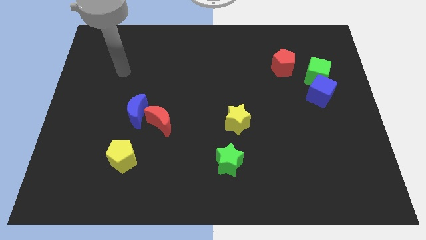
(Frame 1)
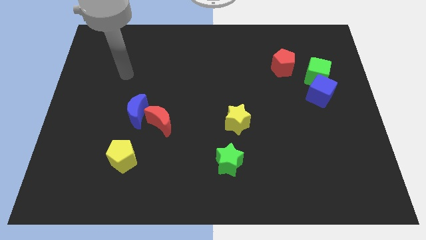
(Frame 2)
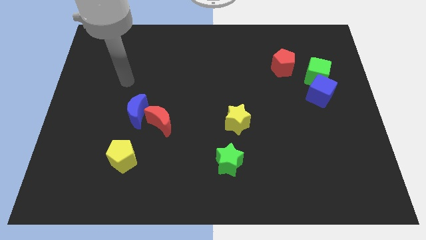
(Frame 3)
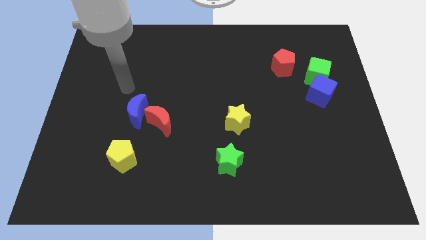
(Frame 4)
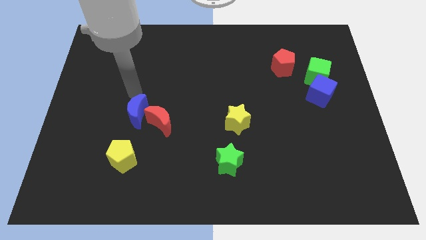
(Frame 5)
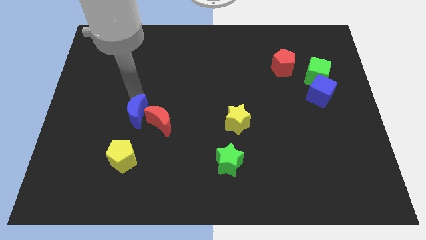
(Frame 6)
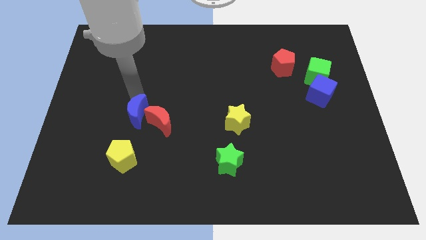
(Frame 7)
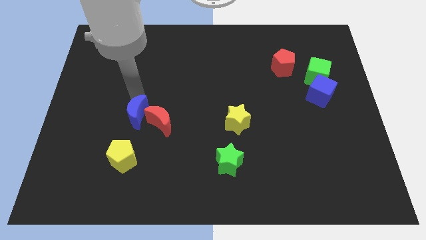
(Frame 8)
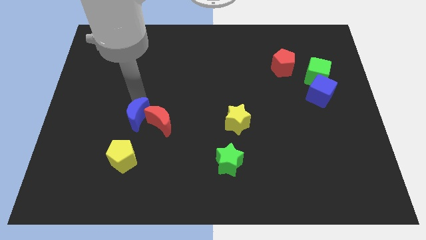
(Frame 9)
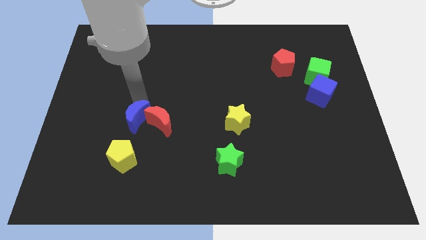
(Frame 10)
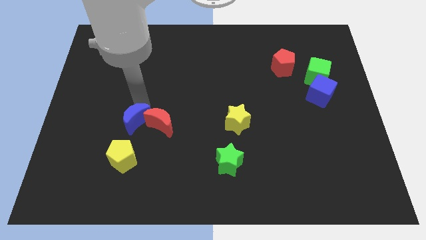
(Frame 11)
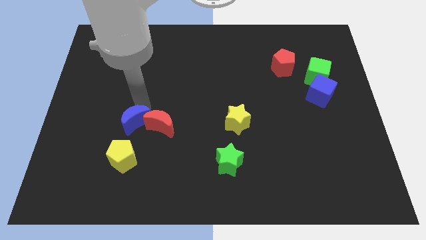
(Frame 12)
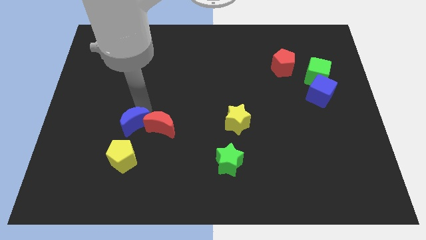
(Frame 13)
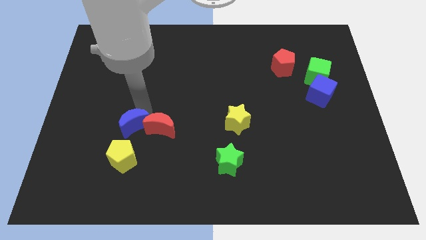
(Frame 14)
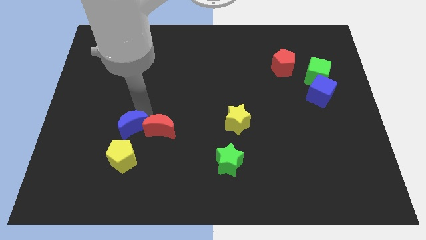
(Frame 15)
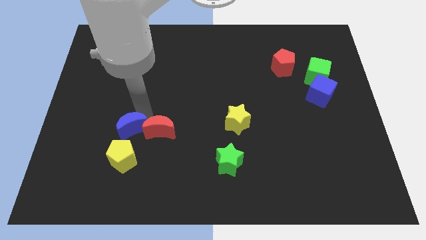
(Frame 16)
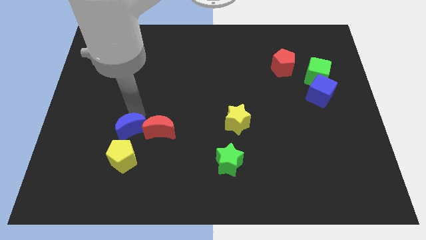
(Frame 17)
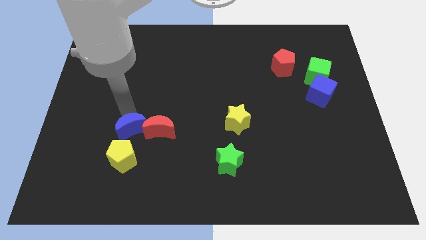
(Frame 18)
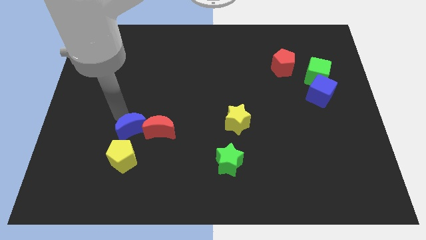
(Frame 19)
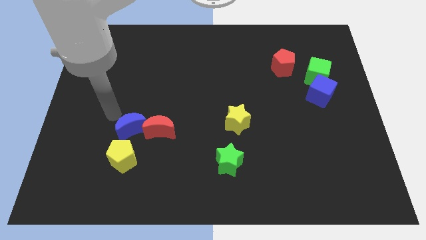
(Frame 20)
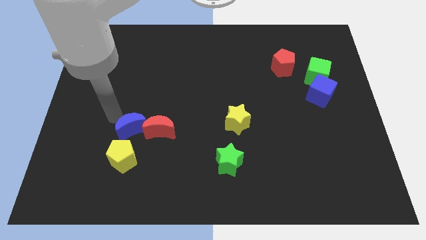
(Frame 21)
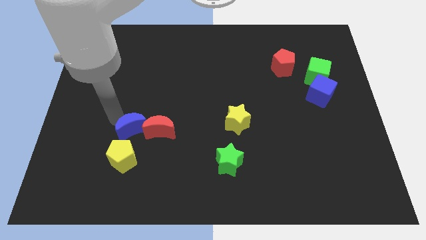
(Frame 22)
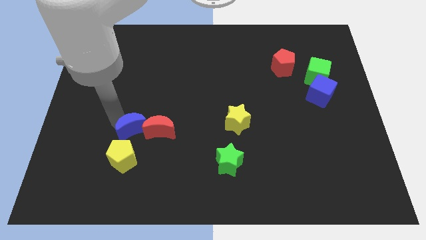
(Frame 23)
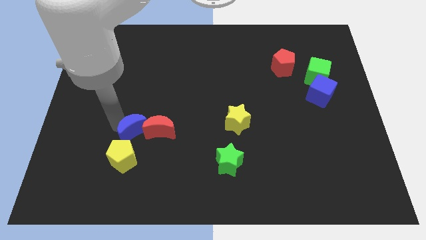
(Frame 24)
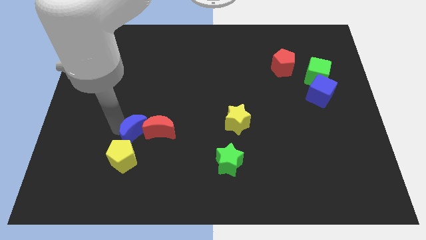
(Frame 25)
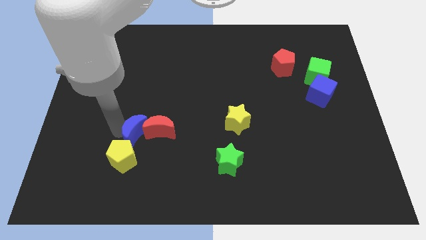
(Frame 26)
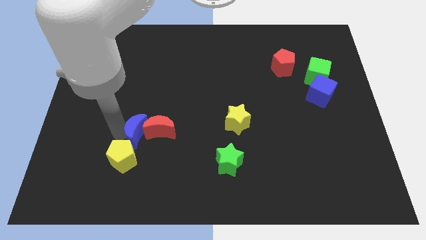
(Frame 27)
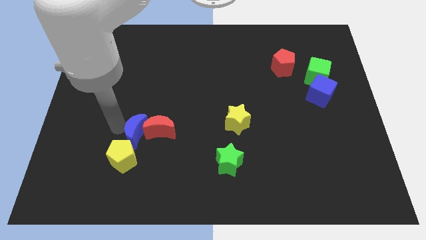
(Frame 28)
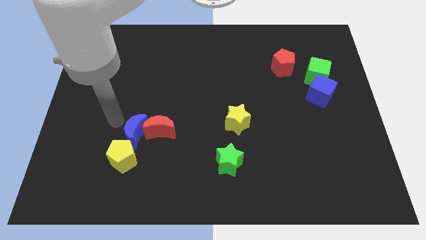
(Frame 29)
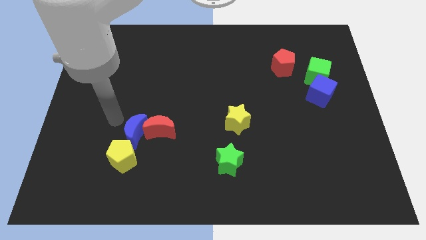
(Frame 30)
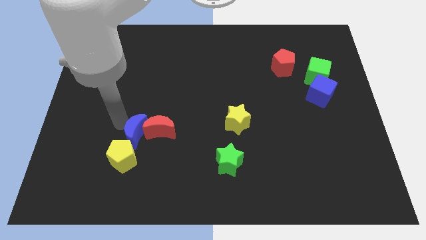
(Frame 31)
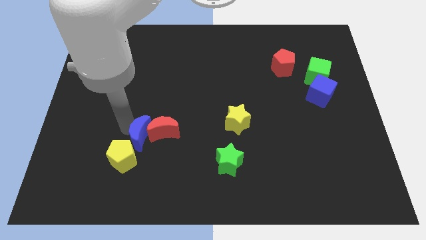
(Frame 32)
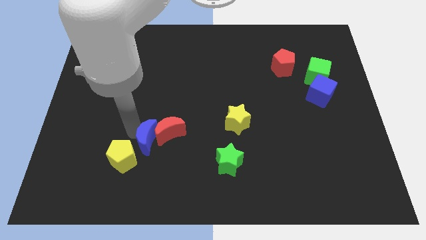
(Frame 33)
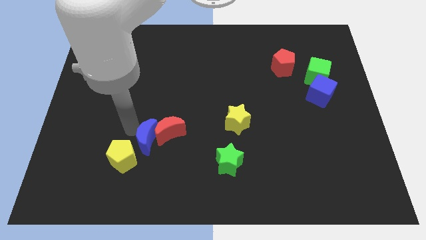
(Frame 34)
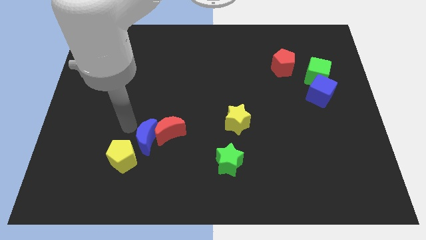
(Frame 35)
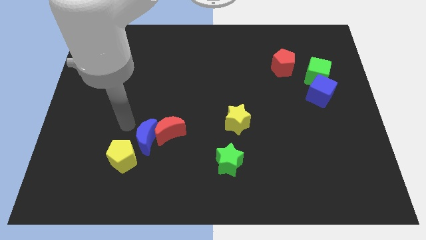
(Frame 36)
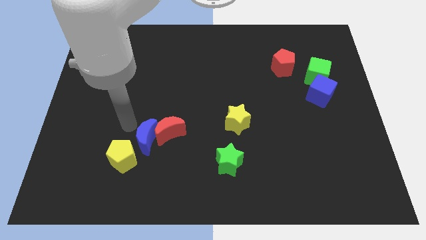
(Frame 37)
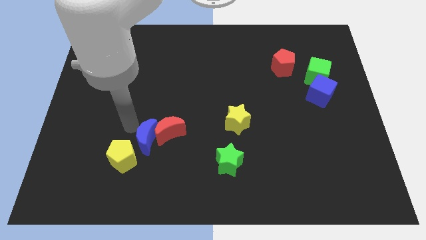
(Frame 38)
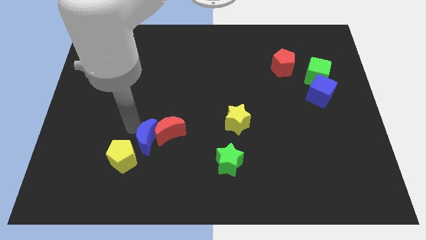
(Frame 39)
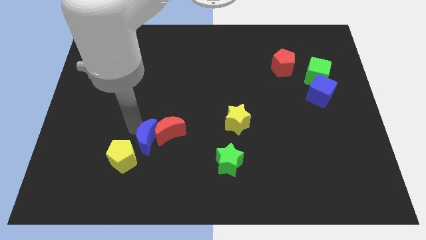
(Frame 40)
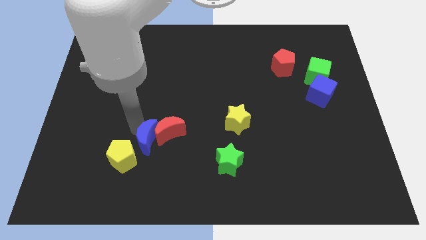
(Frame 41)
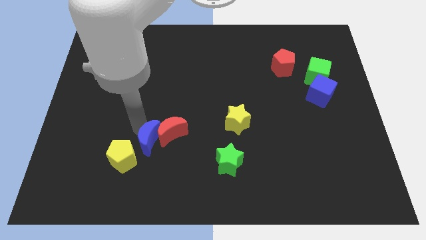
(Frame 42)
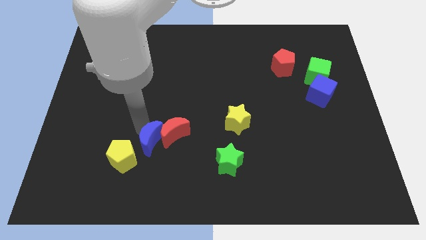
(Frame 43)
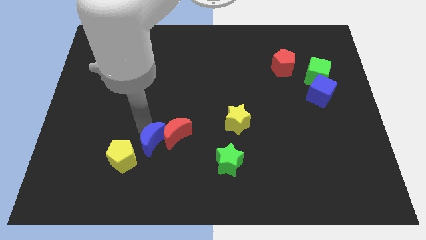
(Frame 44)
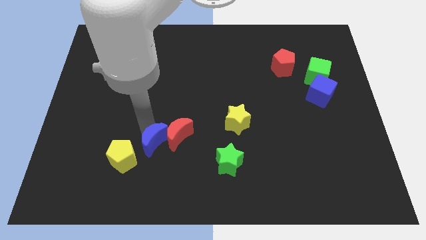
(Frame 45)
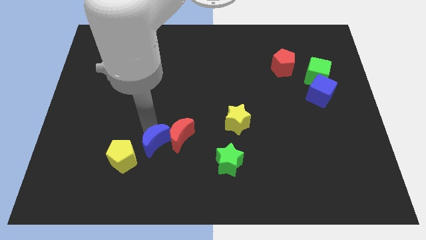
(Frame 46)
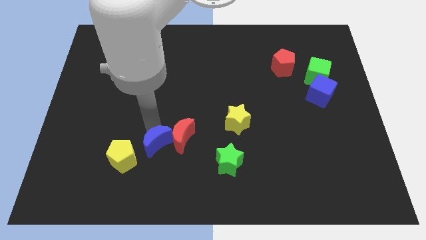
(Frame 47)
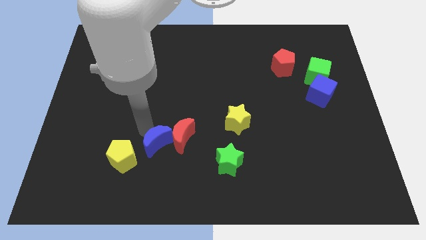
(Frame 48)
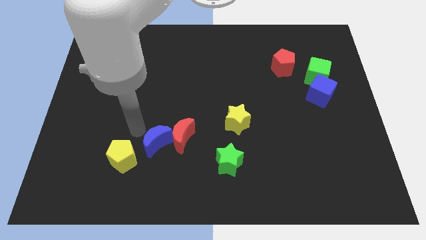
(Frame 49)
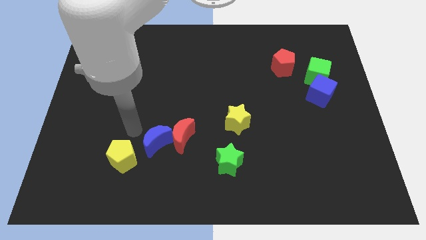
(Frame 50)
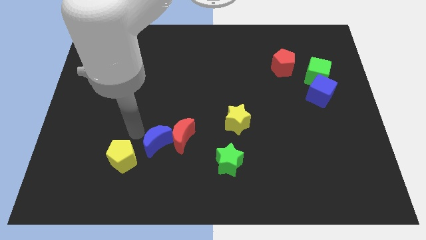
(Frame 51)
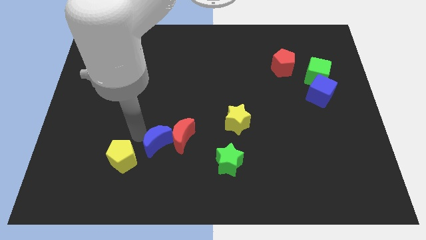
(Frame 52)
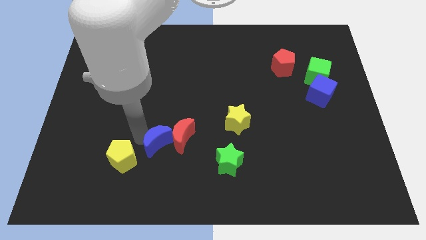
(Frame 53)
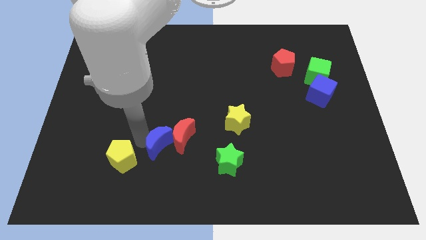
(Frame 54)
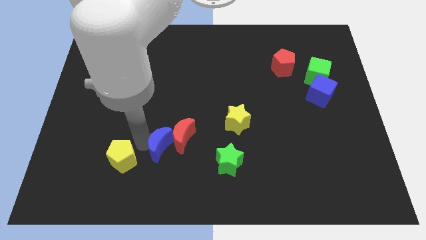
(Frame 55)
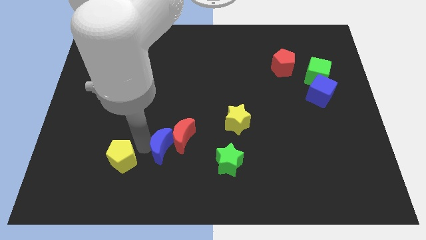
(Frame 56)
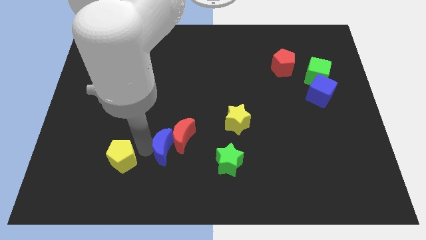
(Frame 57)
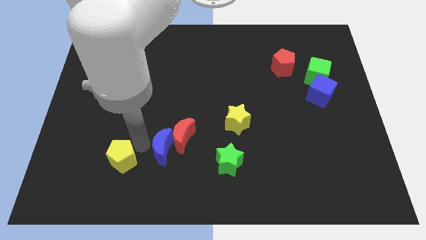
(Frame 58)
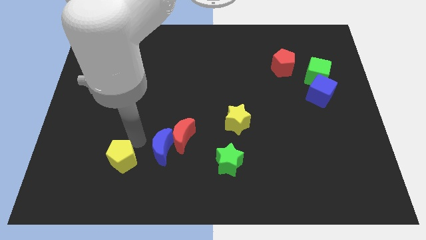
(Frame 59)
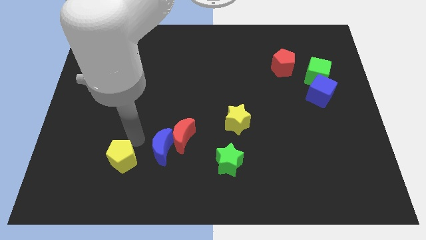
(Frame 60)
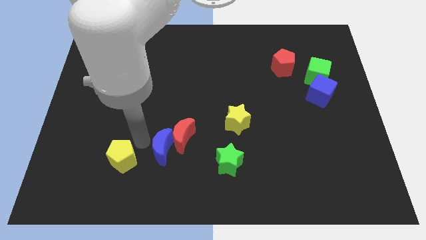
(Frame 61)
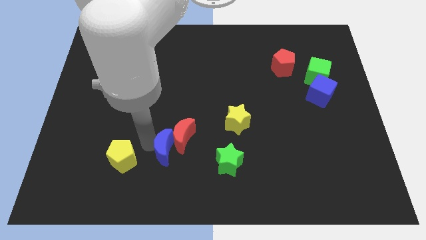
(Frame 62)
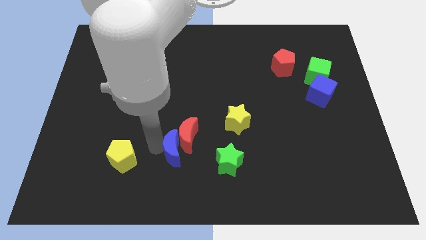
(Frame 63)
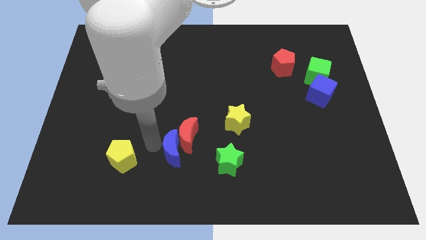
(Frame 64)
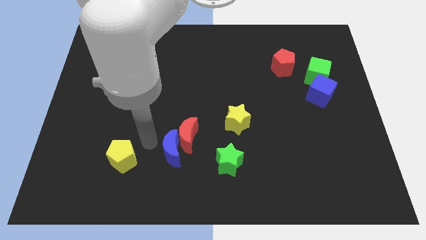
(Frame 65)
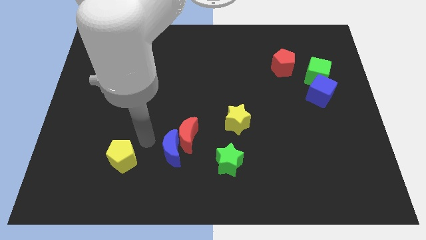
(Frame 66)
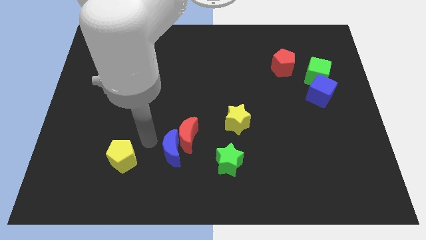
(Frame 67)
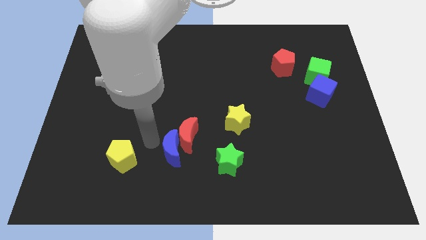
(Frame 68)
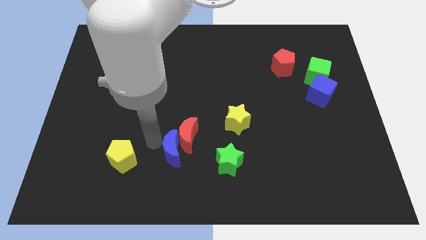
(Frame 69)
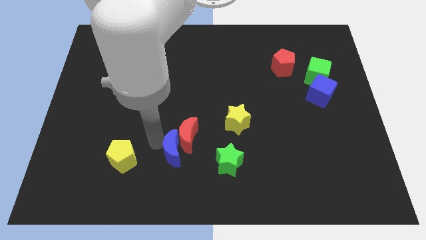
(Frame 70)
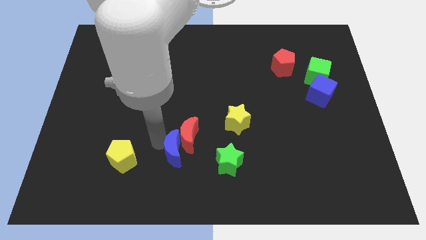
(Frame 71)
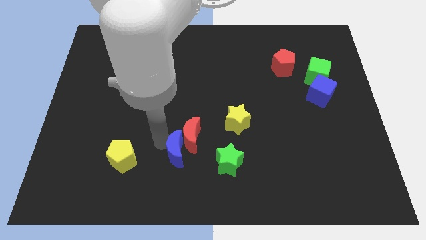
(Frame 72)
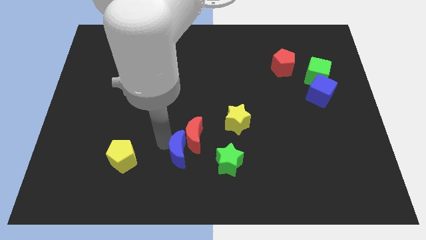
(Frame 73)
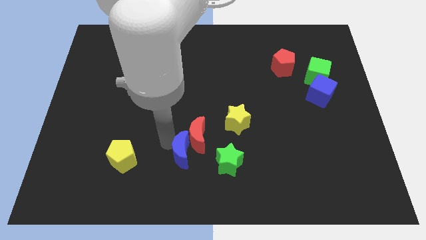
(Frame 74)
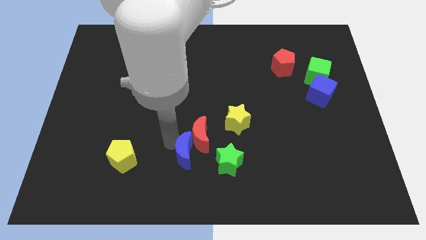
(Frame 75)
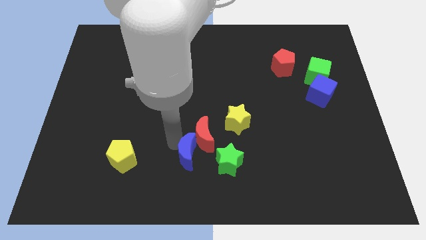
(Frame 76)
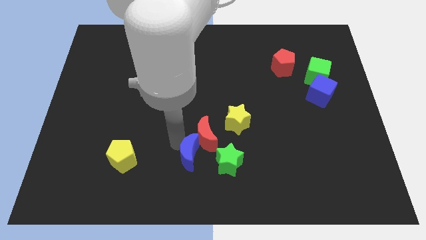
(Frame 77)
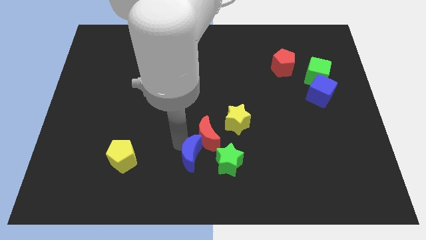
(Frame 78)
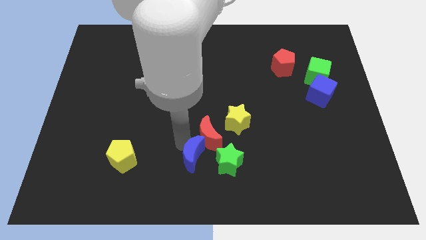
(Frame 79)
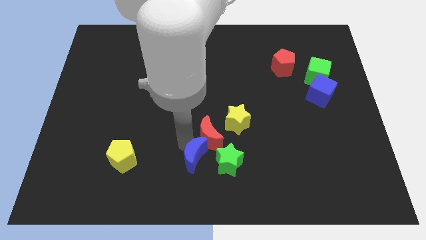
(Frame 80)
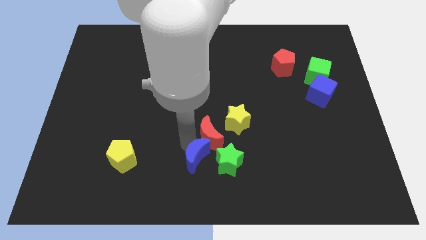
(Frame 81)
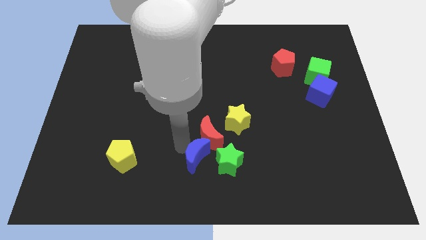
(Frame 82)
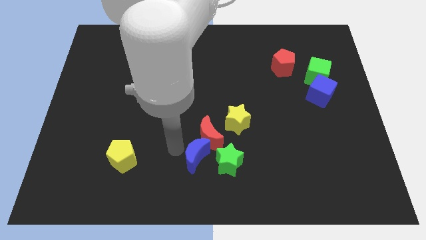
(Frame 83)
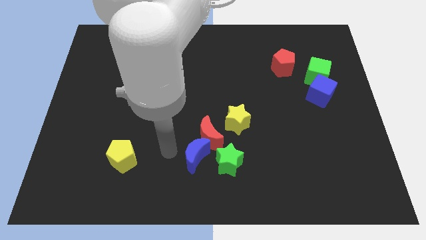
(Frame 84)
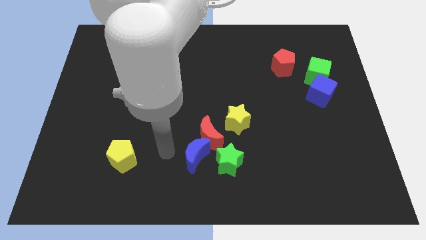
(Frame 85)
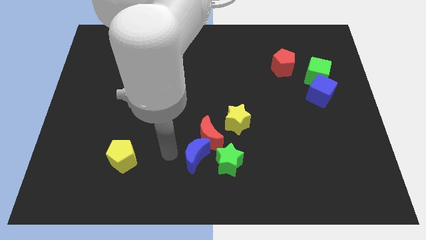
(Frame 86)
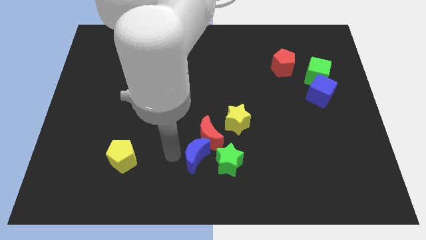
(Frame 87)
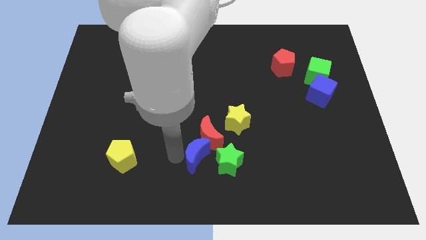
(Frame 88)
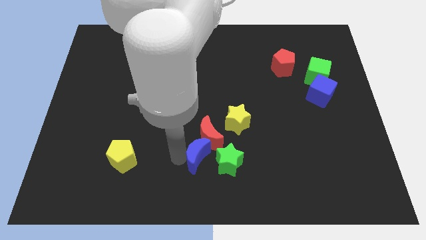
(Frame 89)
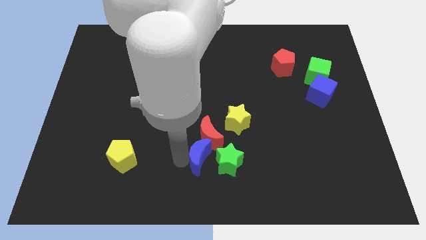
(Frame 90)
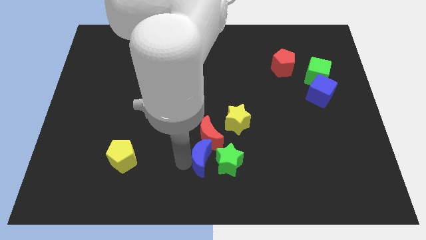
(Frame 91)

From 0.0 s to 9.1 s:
move the blue moon towards the green star
